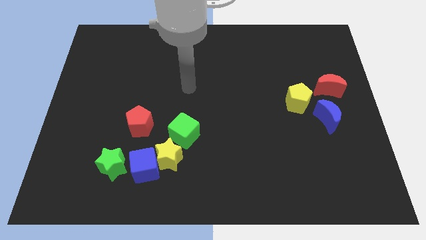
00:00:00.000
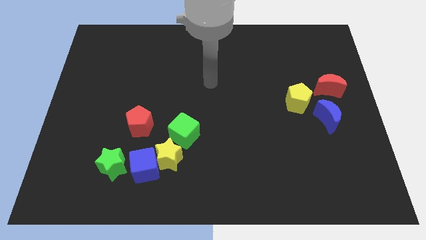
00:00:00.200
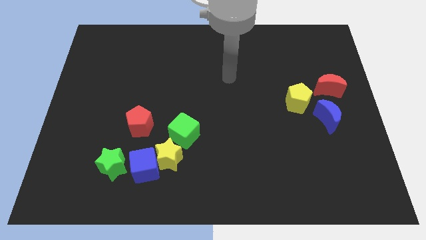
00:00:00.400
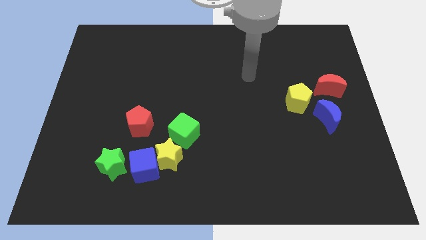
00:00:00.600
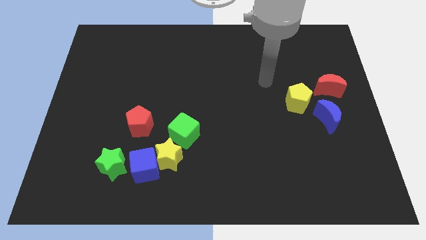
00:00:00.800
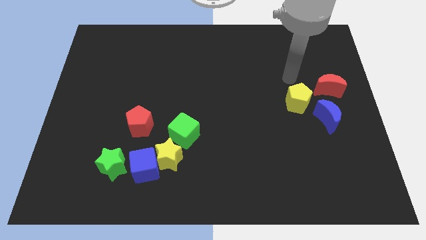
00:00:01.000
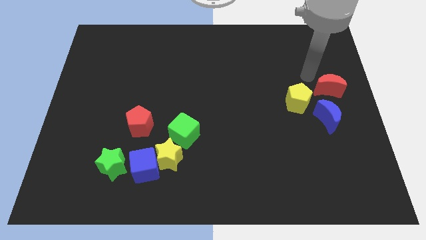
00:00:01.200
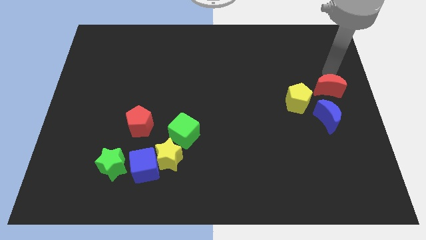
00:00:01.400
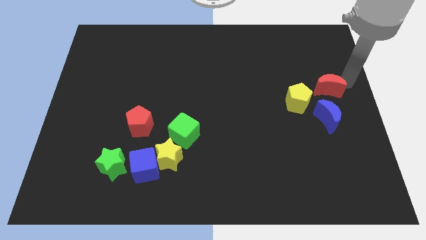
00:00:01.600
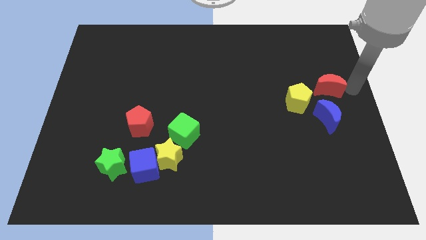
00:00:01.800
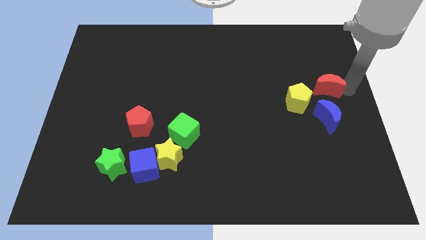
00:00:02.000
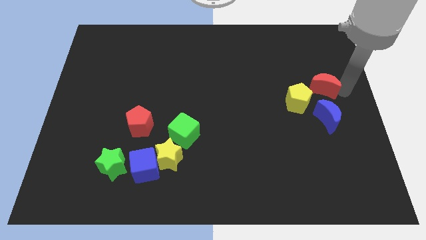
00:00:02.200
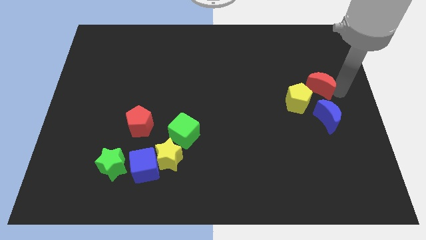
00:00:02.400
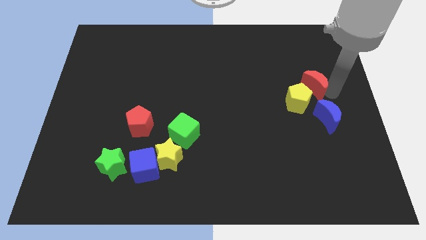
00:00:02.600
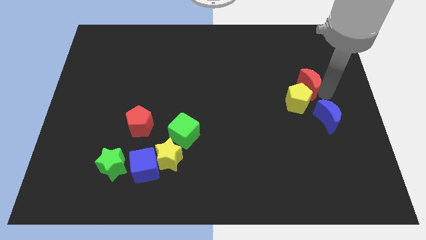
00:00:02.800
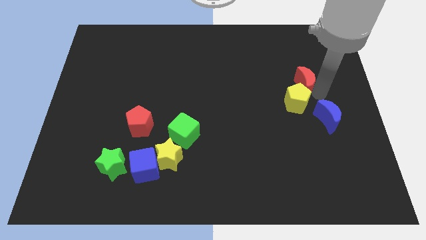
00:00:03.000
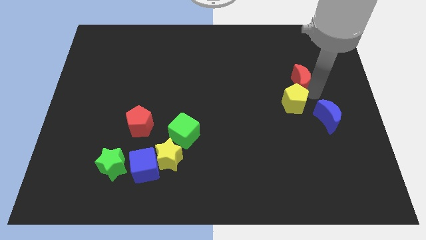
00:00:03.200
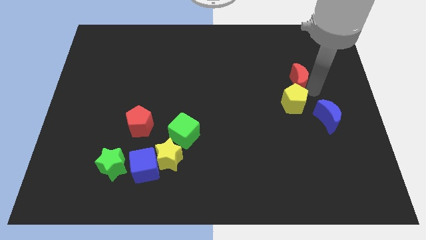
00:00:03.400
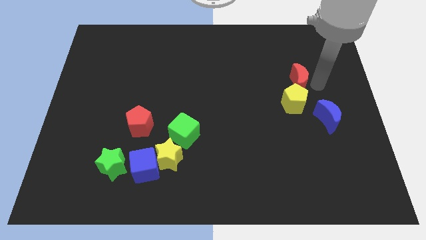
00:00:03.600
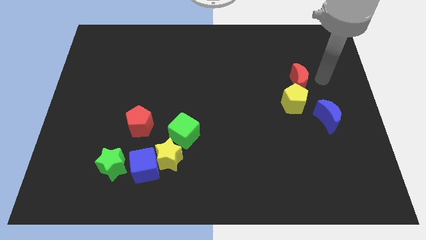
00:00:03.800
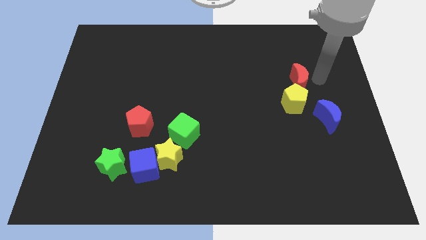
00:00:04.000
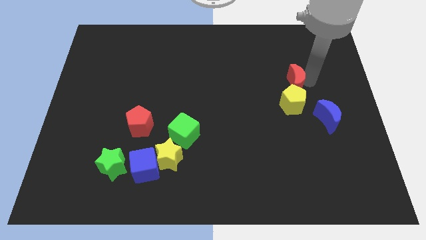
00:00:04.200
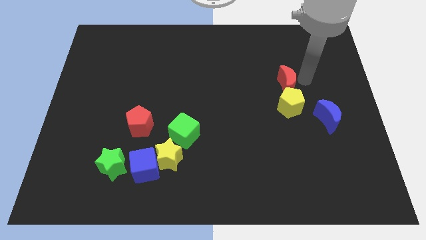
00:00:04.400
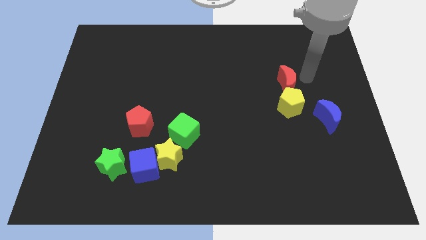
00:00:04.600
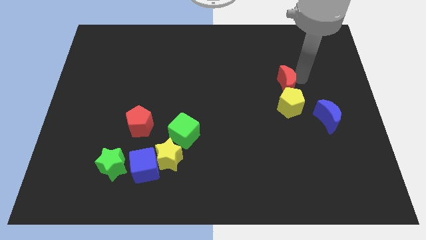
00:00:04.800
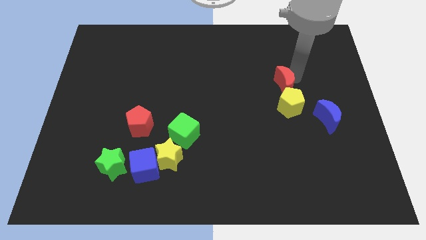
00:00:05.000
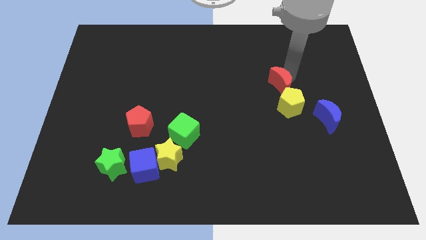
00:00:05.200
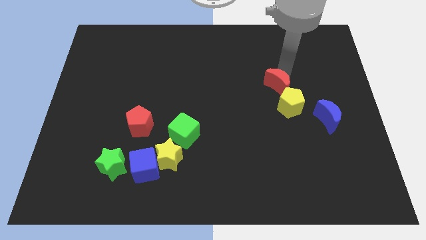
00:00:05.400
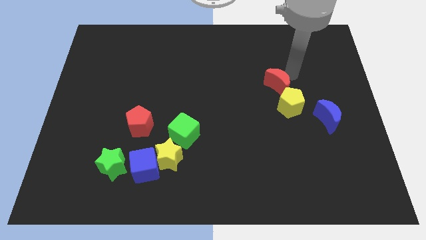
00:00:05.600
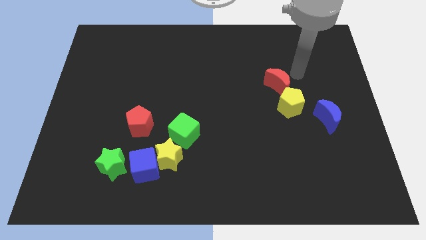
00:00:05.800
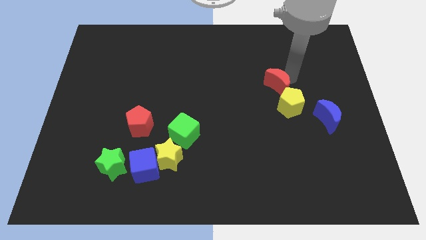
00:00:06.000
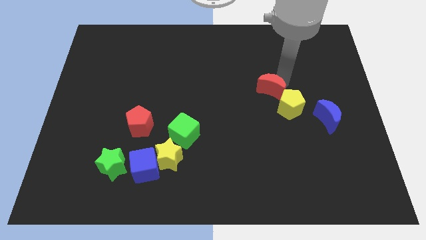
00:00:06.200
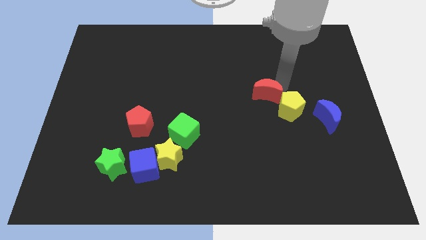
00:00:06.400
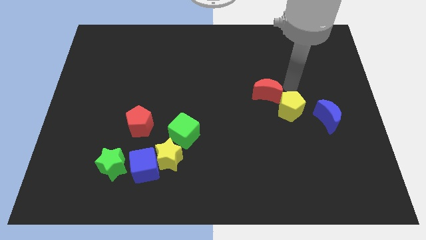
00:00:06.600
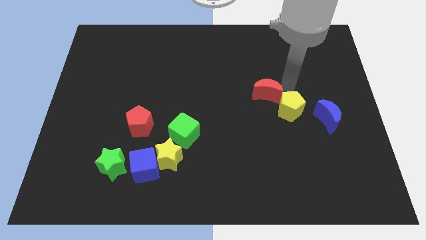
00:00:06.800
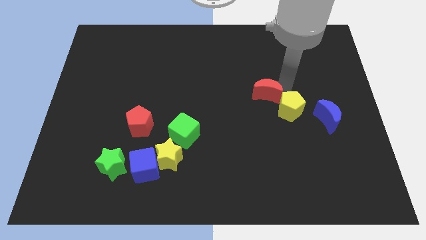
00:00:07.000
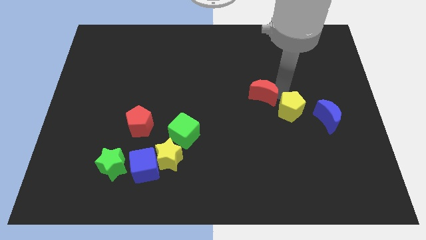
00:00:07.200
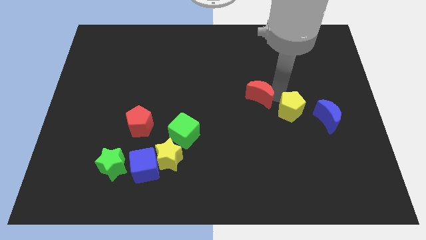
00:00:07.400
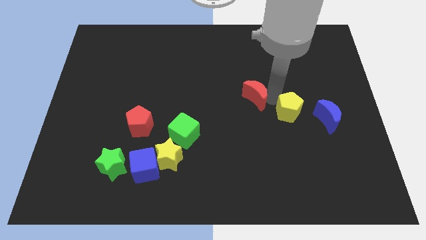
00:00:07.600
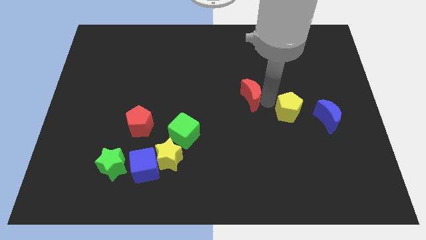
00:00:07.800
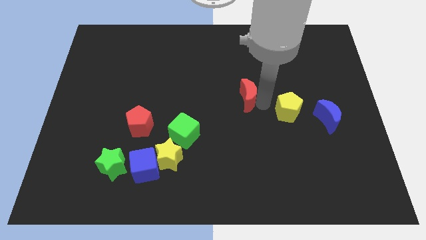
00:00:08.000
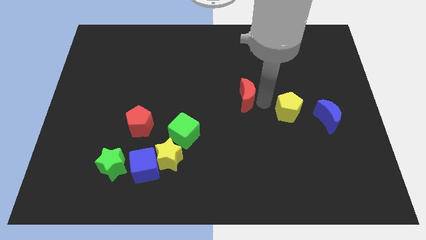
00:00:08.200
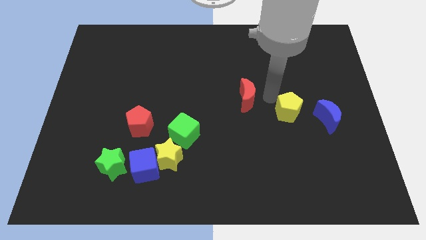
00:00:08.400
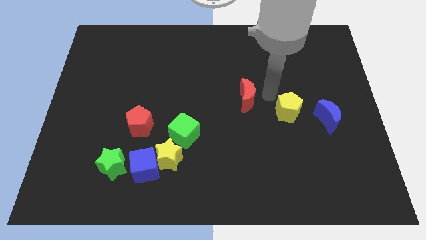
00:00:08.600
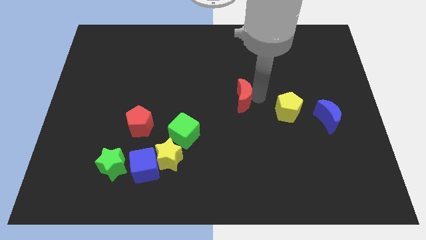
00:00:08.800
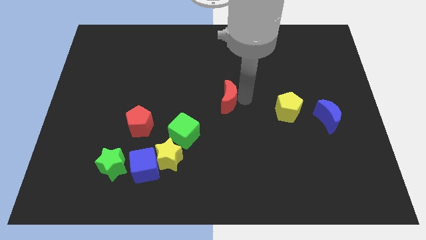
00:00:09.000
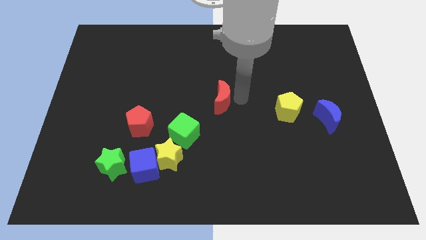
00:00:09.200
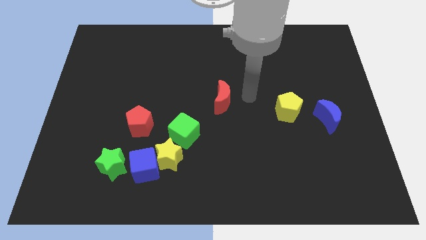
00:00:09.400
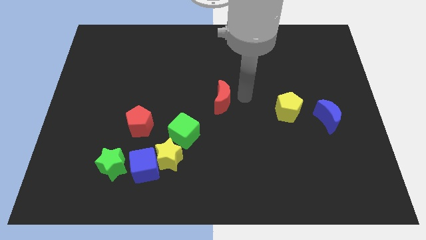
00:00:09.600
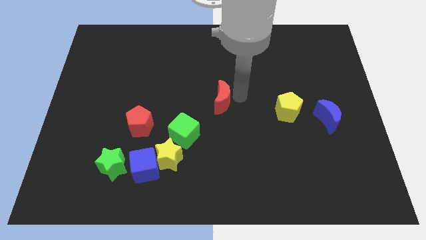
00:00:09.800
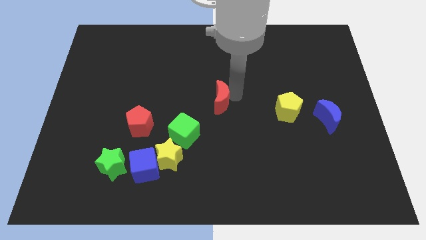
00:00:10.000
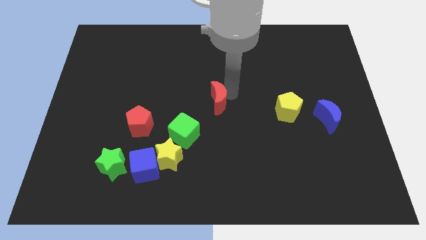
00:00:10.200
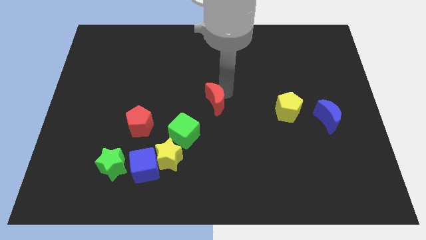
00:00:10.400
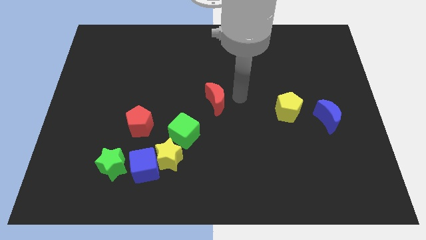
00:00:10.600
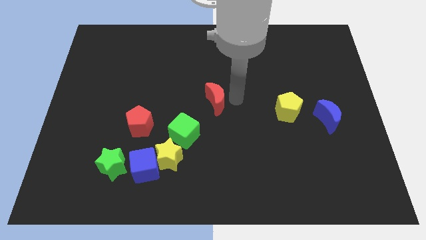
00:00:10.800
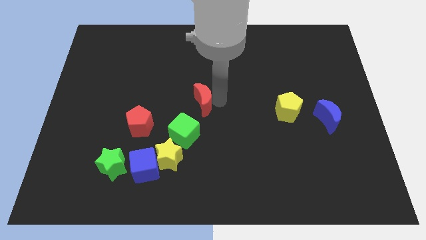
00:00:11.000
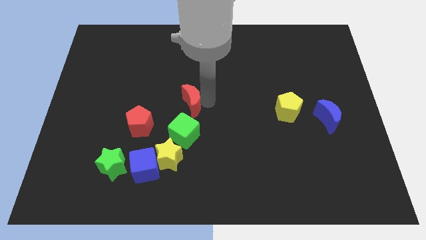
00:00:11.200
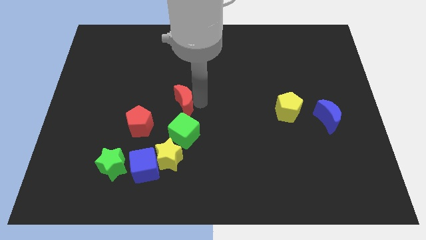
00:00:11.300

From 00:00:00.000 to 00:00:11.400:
push the red moon to the top right of the red pentagon

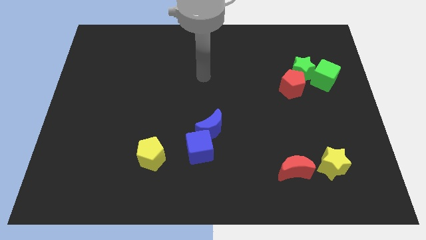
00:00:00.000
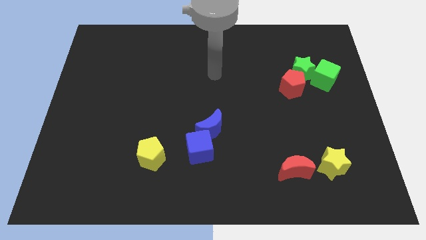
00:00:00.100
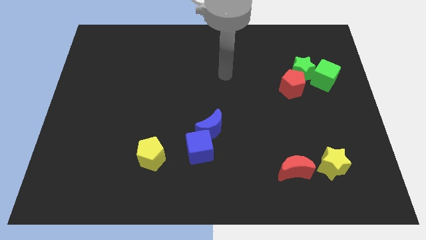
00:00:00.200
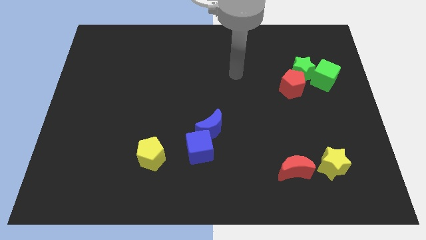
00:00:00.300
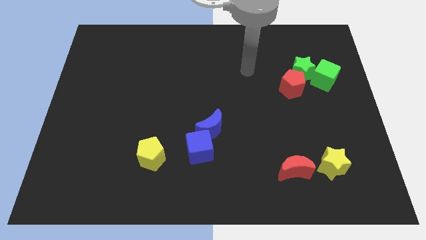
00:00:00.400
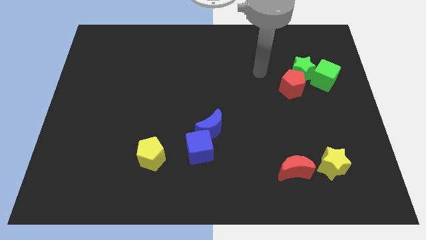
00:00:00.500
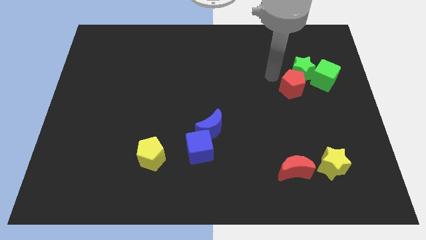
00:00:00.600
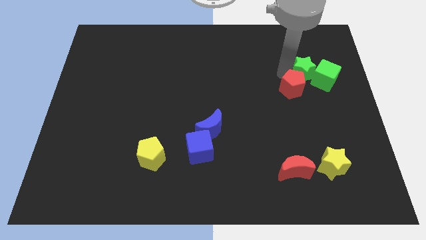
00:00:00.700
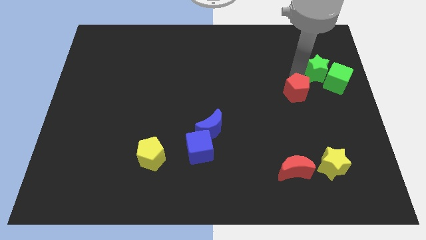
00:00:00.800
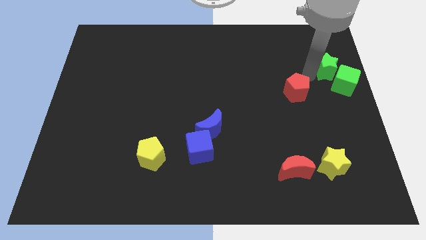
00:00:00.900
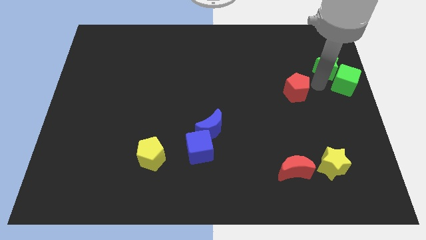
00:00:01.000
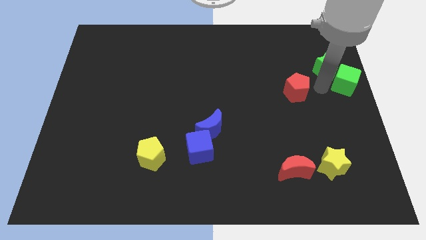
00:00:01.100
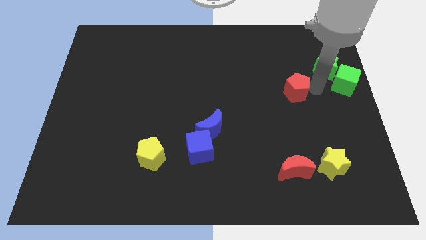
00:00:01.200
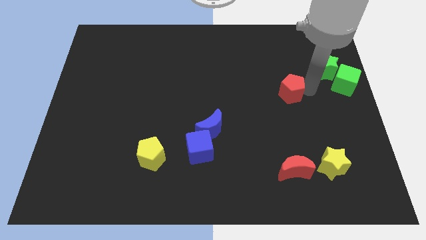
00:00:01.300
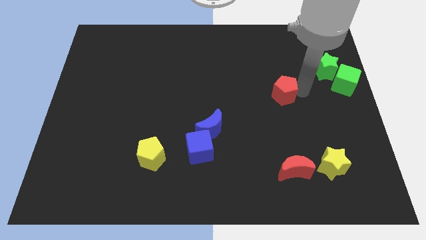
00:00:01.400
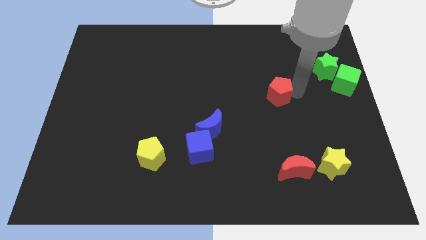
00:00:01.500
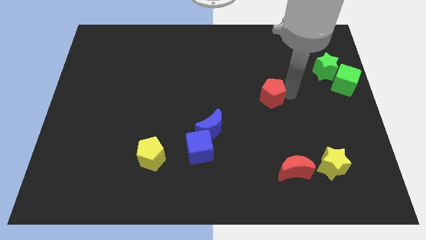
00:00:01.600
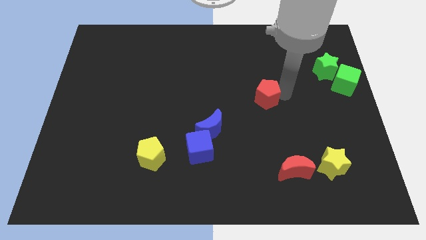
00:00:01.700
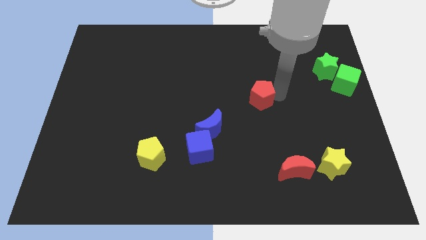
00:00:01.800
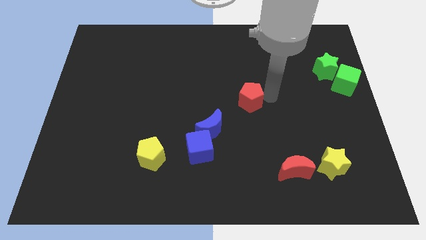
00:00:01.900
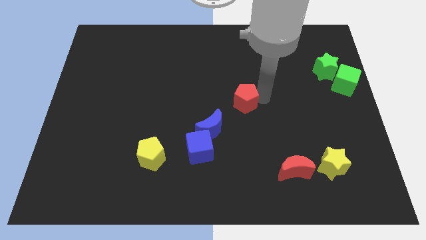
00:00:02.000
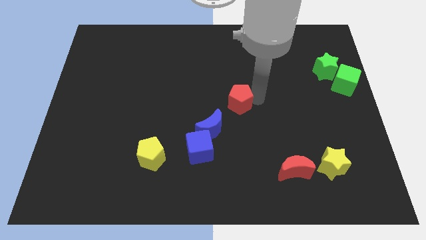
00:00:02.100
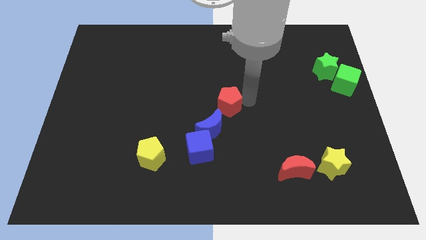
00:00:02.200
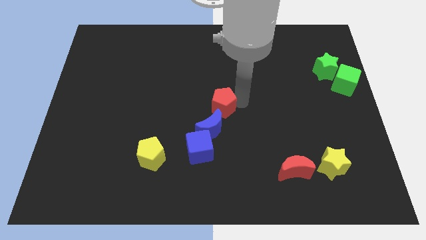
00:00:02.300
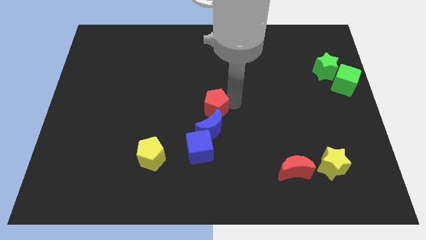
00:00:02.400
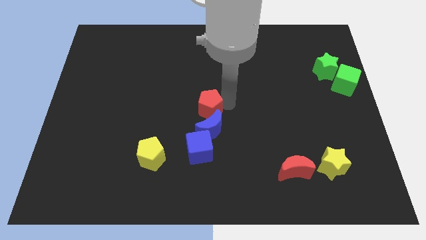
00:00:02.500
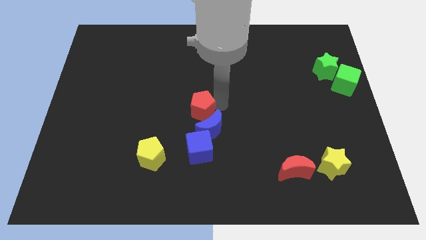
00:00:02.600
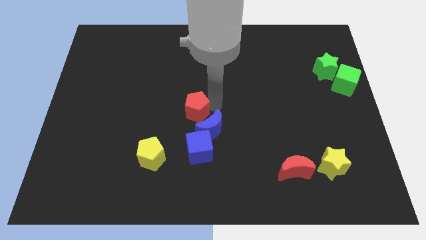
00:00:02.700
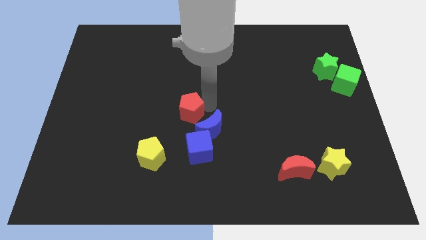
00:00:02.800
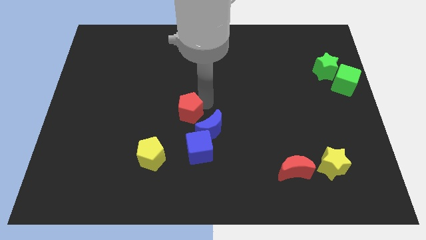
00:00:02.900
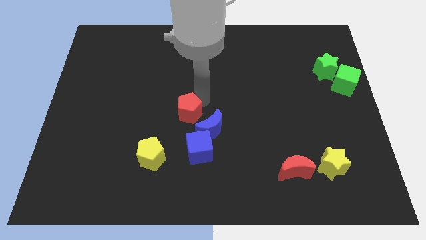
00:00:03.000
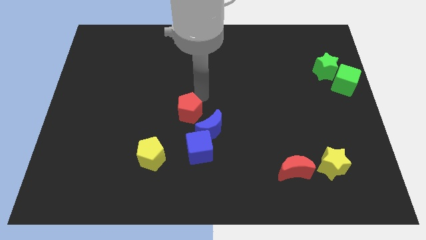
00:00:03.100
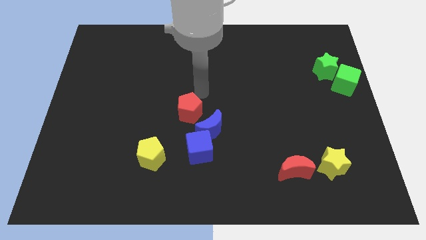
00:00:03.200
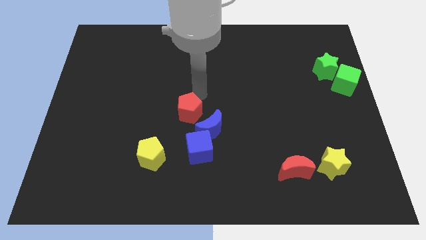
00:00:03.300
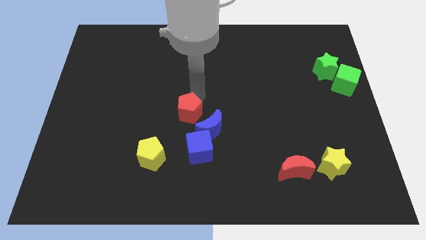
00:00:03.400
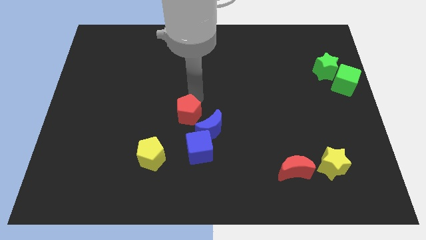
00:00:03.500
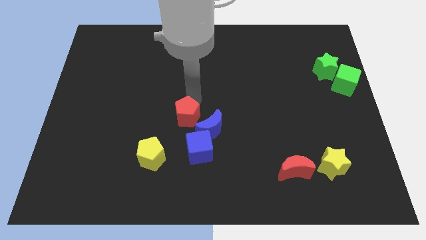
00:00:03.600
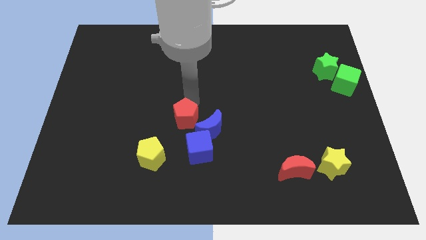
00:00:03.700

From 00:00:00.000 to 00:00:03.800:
push the red pentagon to the top right side of the yellow pentagon
